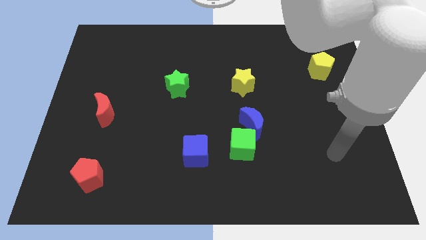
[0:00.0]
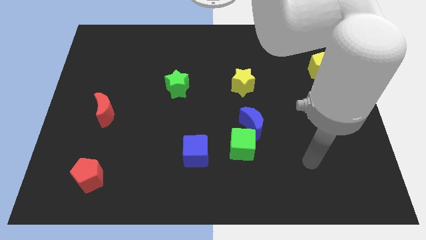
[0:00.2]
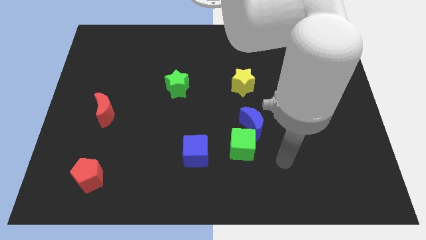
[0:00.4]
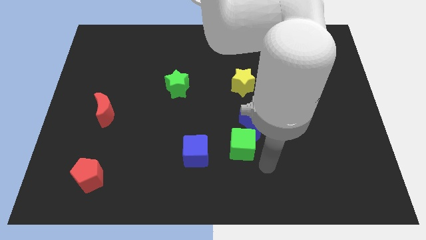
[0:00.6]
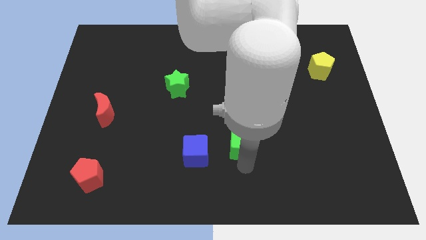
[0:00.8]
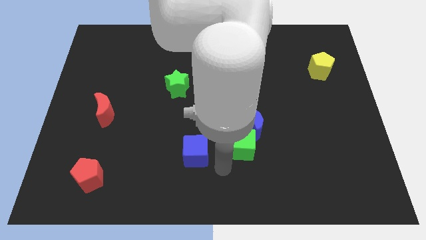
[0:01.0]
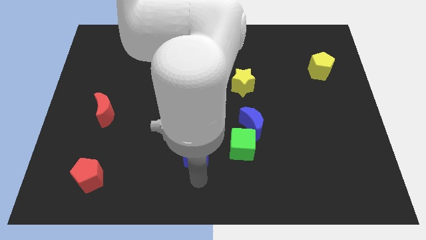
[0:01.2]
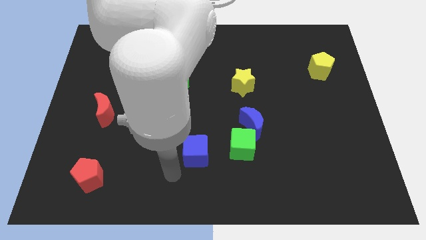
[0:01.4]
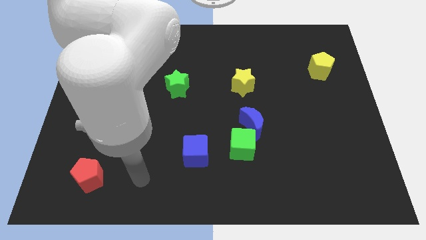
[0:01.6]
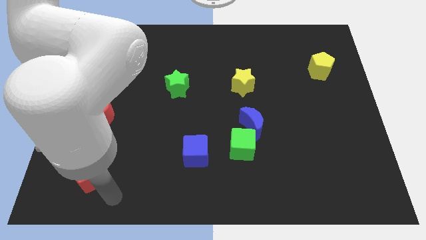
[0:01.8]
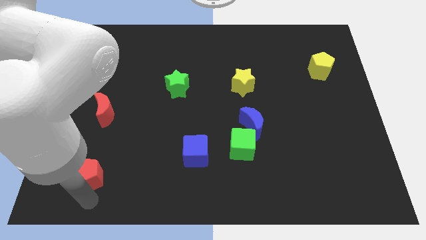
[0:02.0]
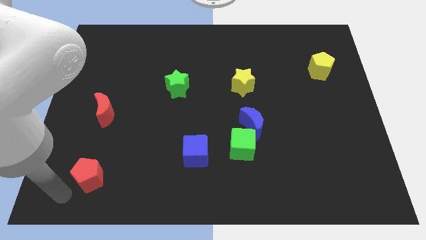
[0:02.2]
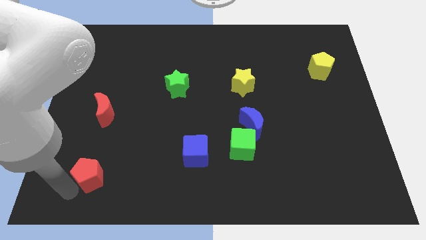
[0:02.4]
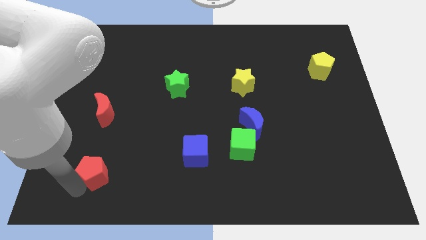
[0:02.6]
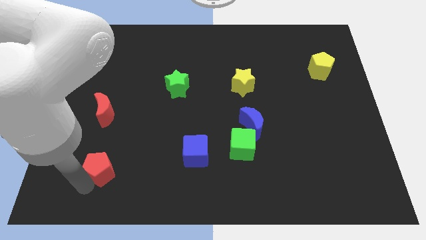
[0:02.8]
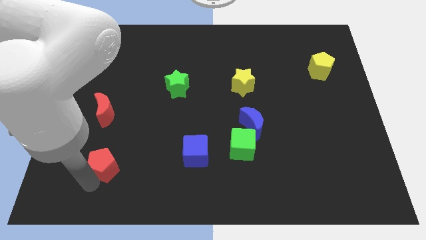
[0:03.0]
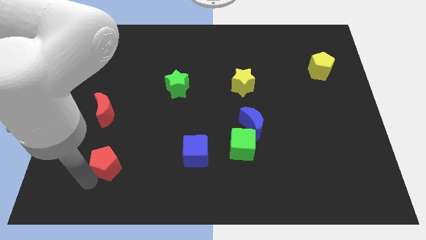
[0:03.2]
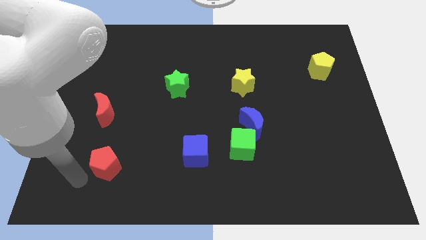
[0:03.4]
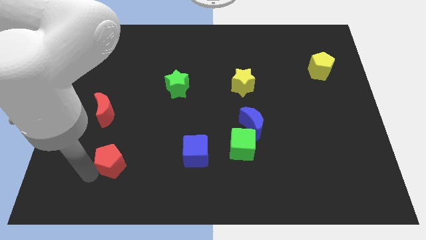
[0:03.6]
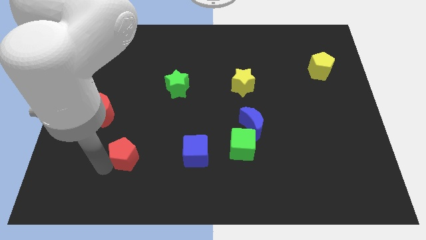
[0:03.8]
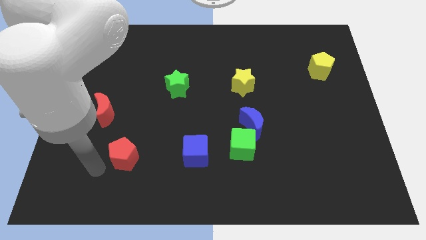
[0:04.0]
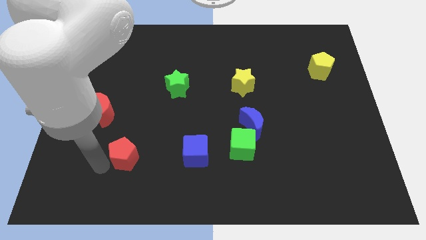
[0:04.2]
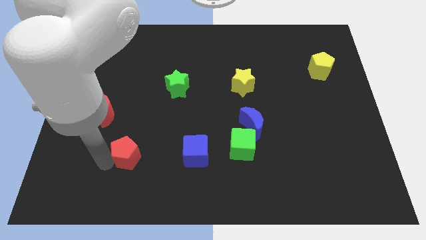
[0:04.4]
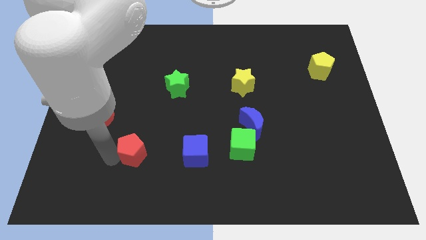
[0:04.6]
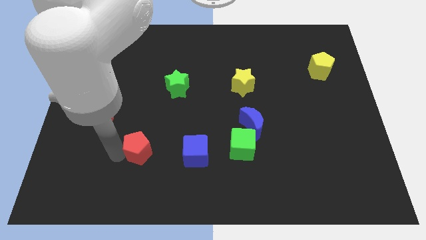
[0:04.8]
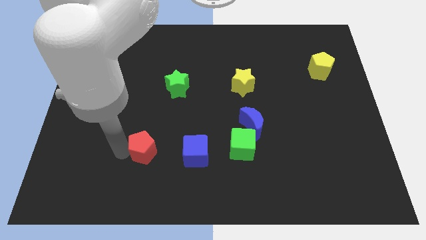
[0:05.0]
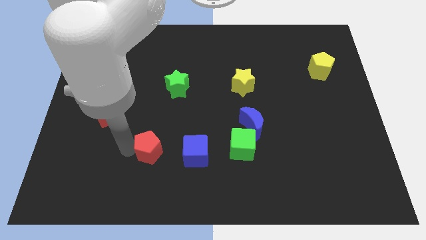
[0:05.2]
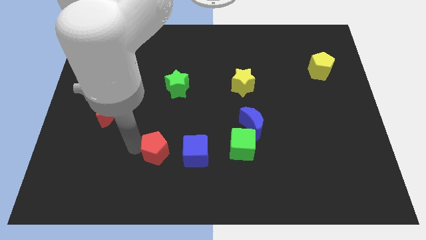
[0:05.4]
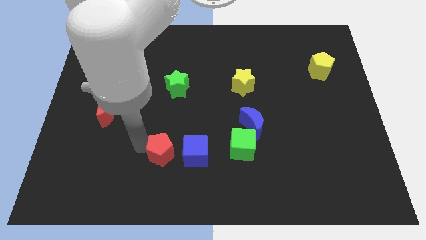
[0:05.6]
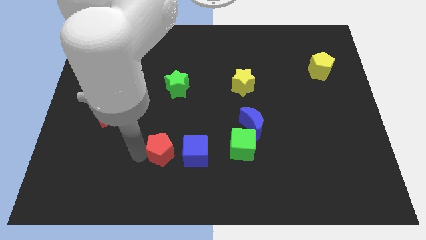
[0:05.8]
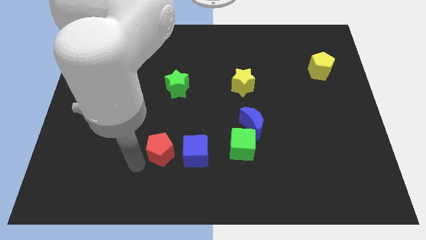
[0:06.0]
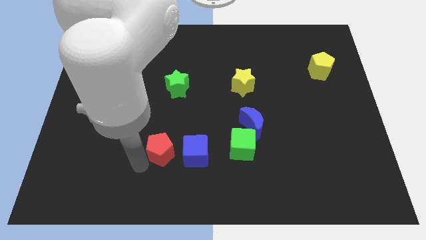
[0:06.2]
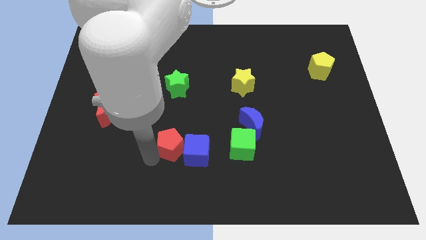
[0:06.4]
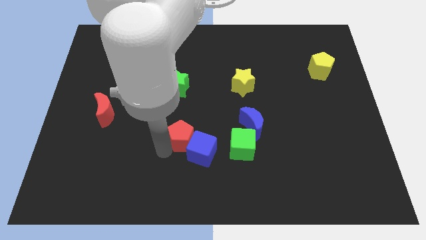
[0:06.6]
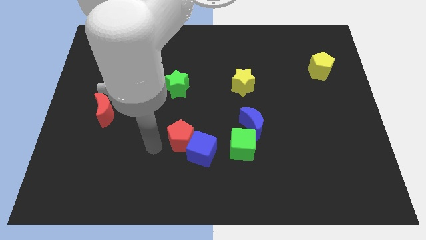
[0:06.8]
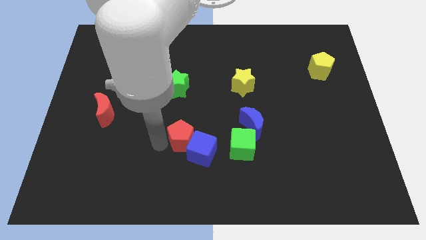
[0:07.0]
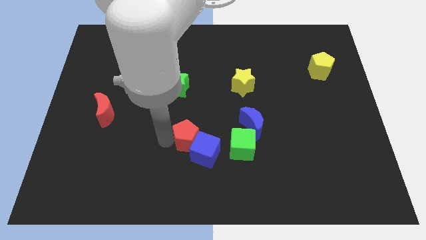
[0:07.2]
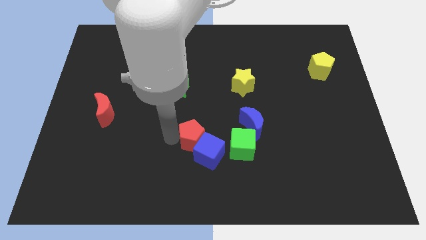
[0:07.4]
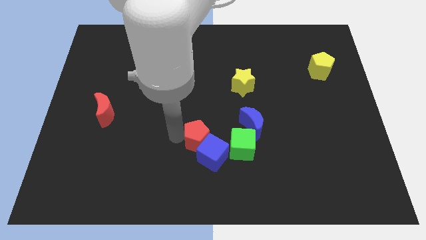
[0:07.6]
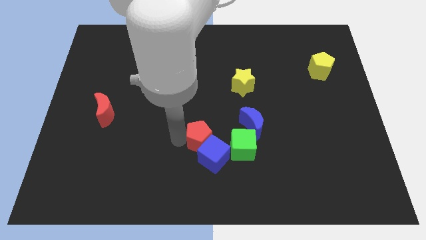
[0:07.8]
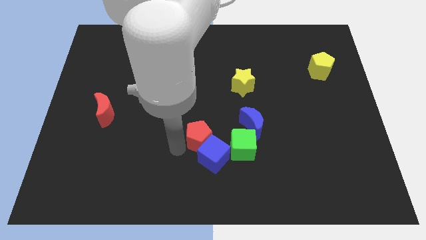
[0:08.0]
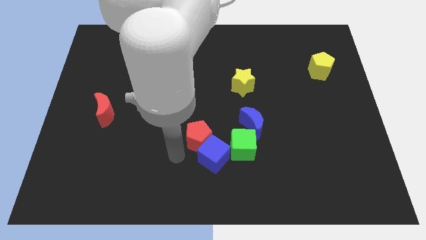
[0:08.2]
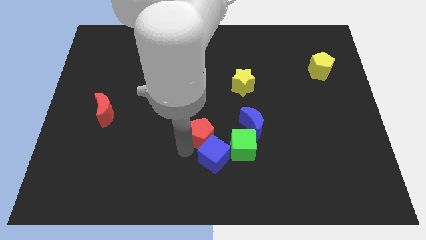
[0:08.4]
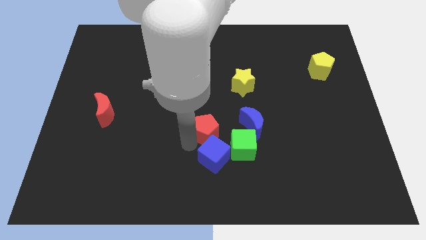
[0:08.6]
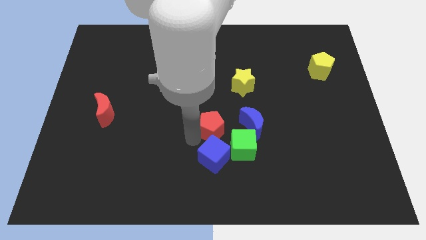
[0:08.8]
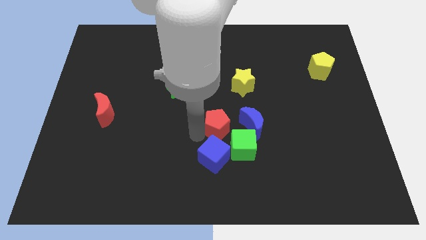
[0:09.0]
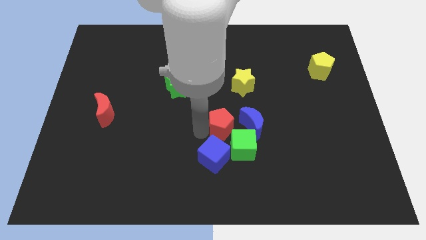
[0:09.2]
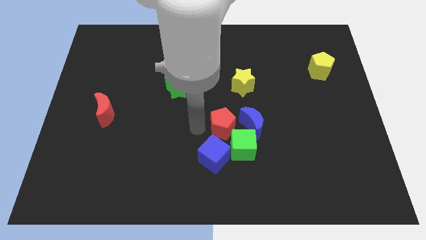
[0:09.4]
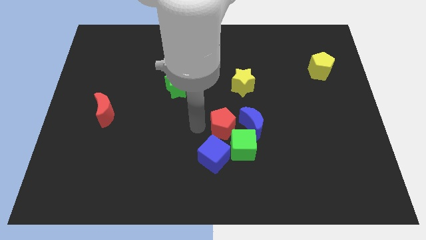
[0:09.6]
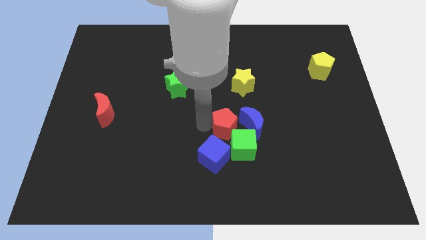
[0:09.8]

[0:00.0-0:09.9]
put the red pentagon close to the blue moon

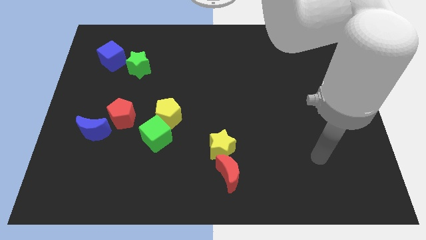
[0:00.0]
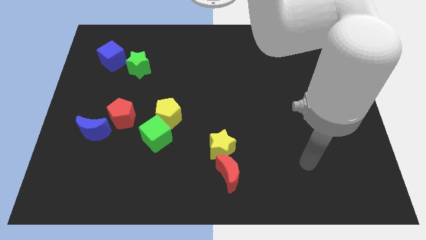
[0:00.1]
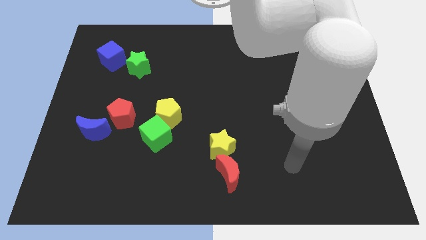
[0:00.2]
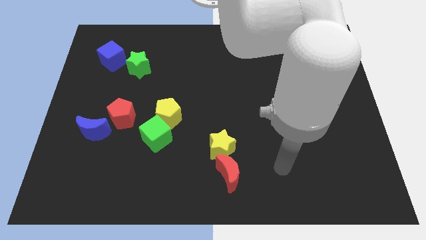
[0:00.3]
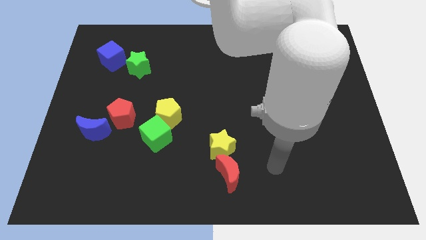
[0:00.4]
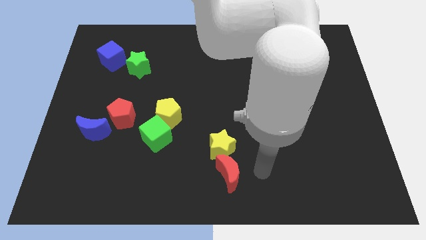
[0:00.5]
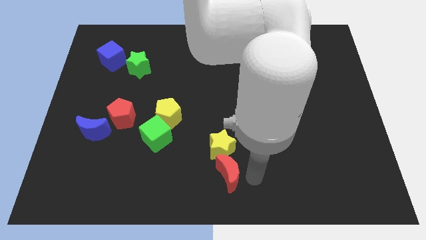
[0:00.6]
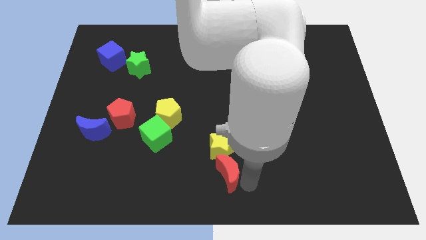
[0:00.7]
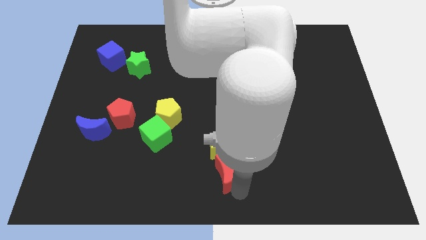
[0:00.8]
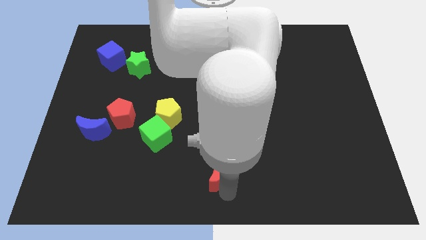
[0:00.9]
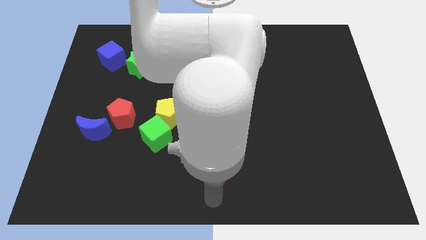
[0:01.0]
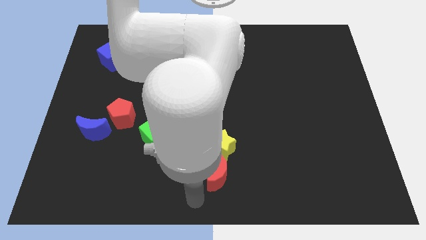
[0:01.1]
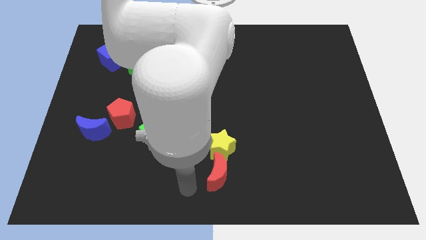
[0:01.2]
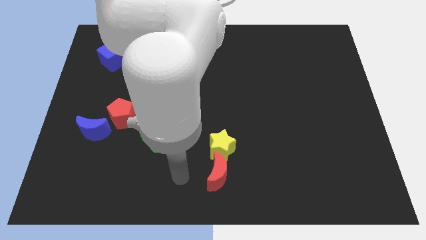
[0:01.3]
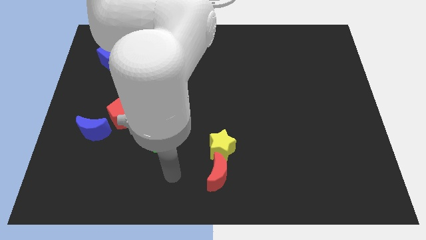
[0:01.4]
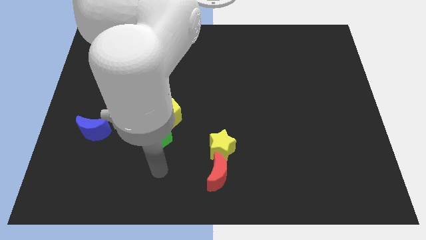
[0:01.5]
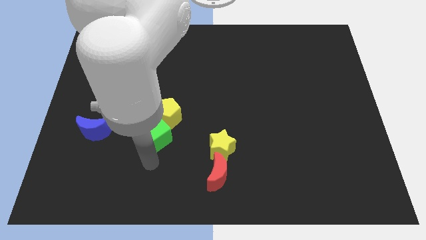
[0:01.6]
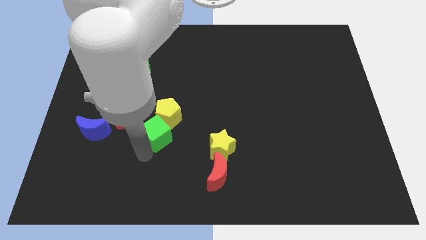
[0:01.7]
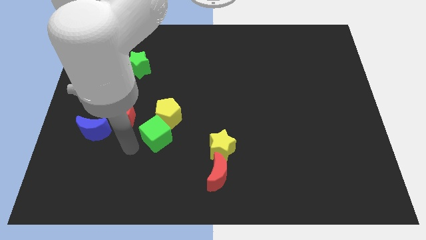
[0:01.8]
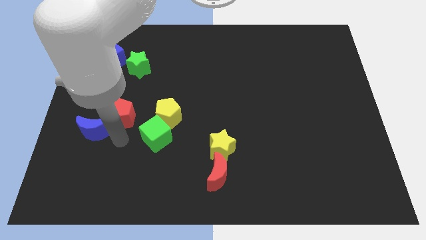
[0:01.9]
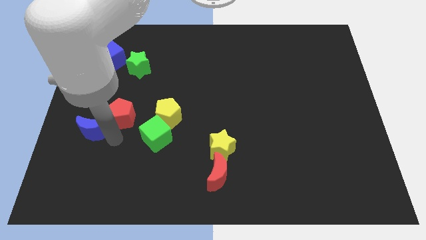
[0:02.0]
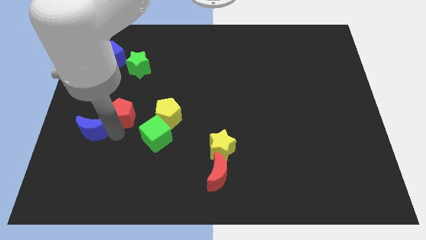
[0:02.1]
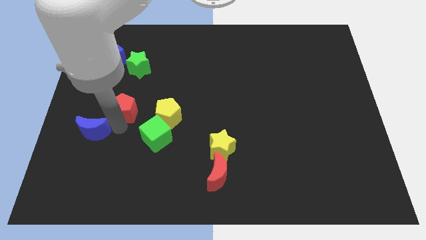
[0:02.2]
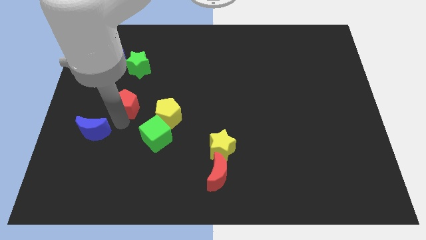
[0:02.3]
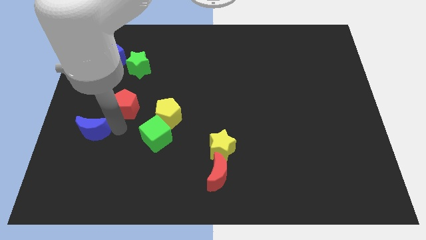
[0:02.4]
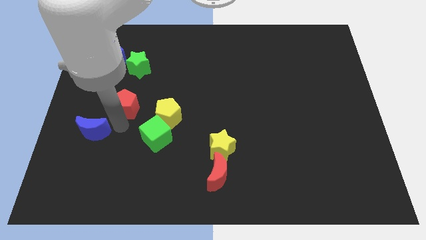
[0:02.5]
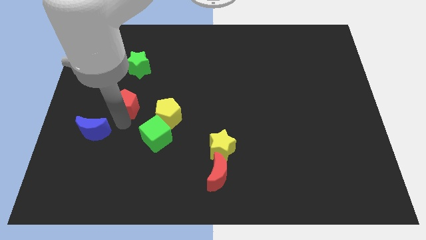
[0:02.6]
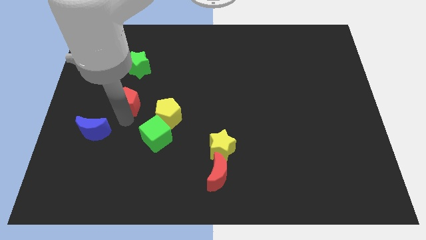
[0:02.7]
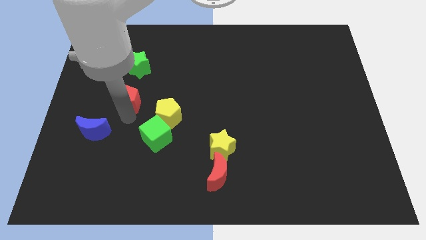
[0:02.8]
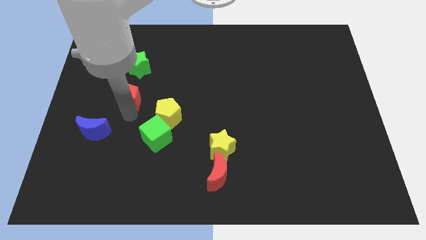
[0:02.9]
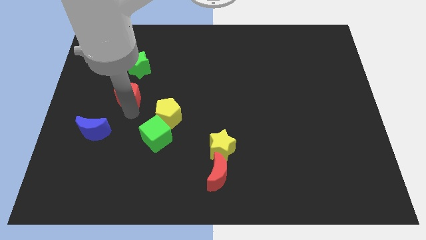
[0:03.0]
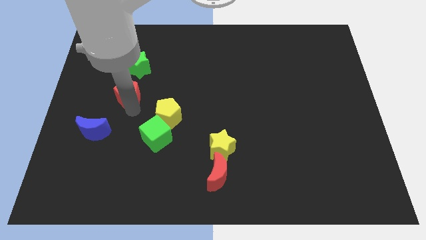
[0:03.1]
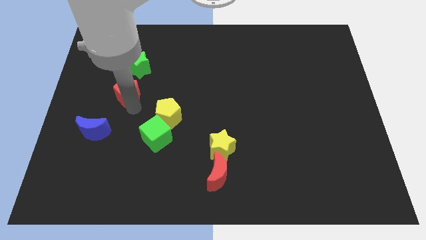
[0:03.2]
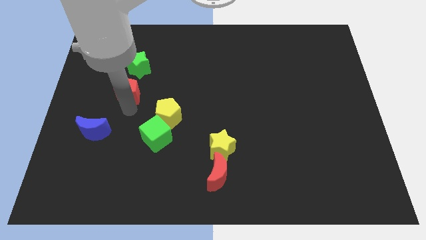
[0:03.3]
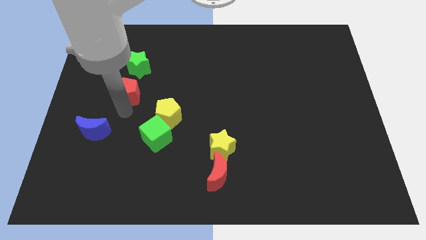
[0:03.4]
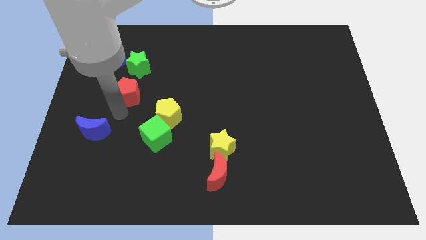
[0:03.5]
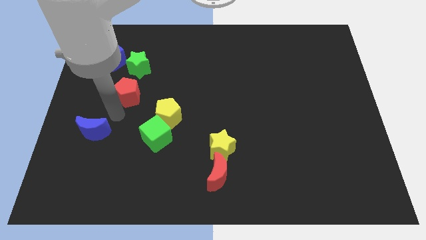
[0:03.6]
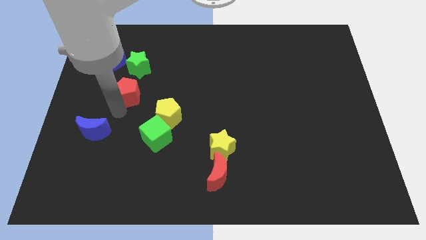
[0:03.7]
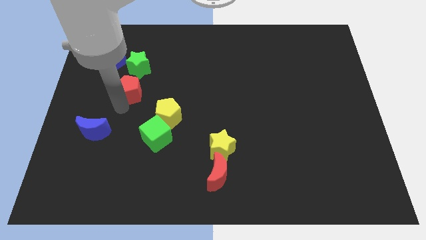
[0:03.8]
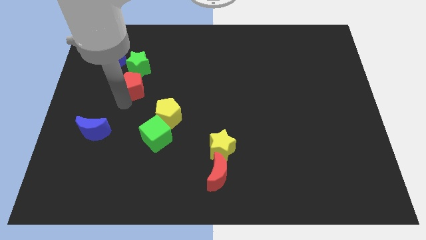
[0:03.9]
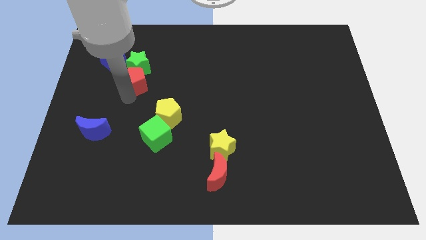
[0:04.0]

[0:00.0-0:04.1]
push the red pentagon next to the green star
